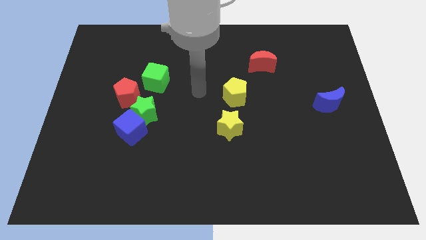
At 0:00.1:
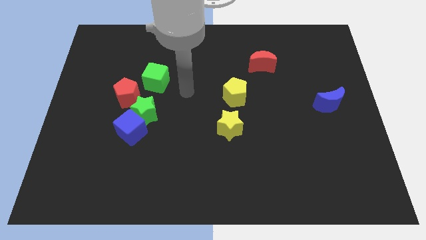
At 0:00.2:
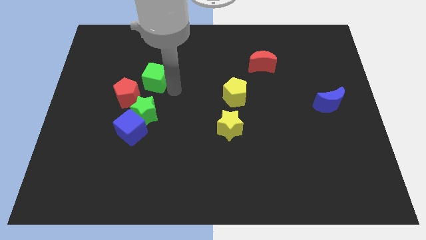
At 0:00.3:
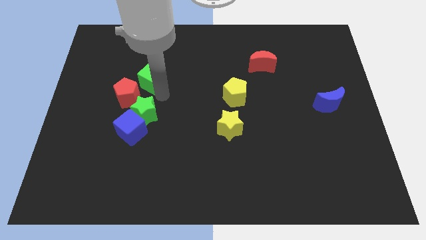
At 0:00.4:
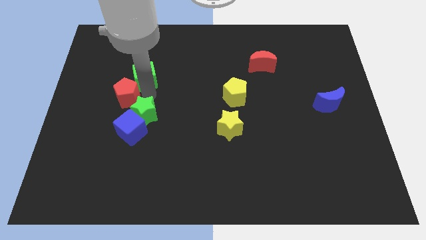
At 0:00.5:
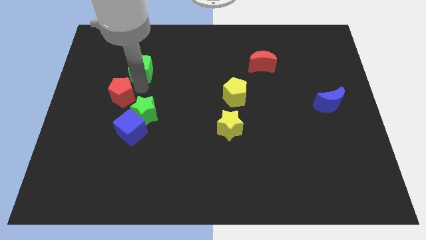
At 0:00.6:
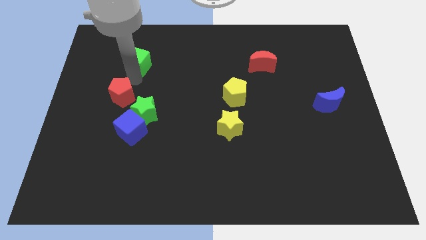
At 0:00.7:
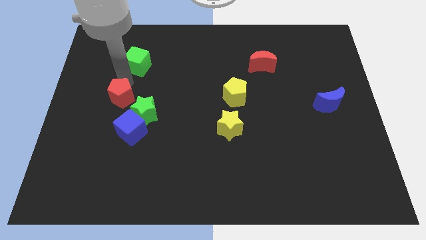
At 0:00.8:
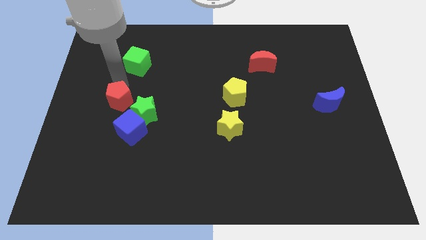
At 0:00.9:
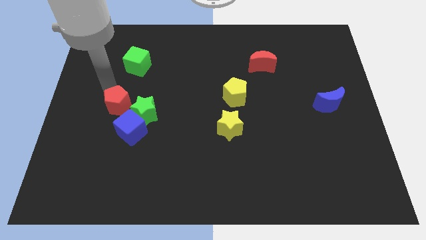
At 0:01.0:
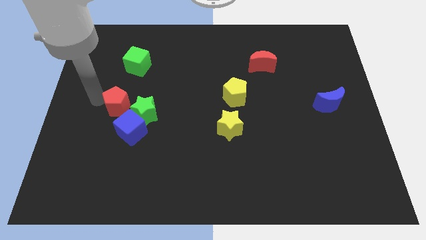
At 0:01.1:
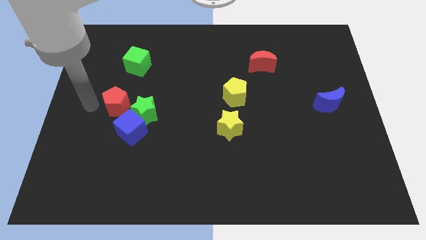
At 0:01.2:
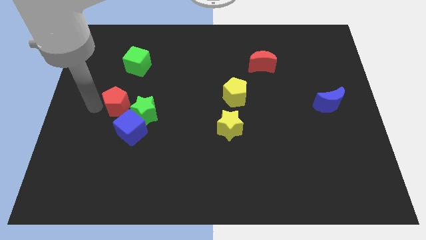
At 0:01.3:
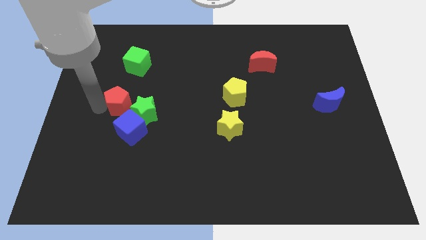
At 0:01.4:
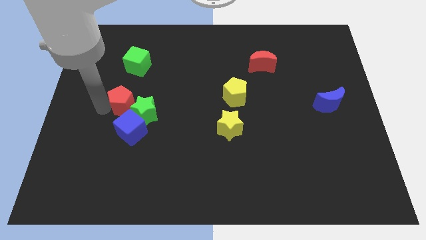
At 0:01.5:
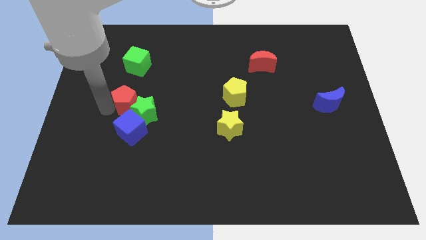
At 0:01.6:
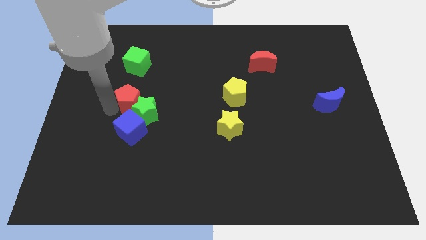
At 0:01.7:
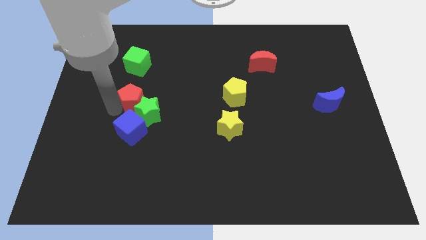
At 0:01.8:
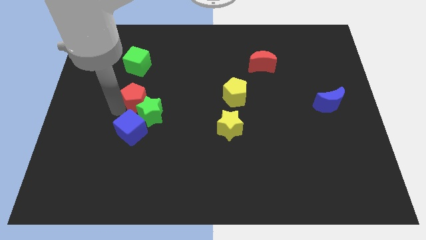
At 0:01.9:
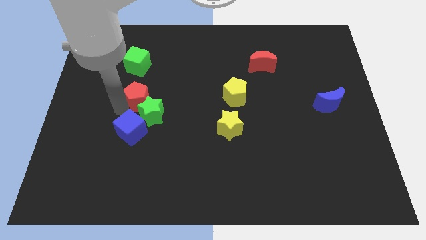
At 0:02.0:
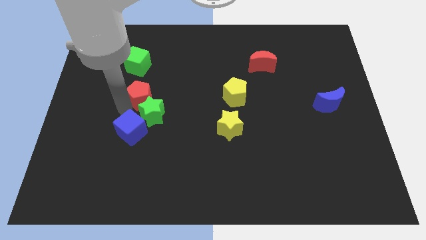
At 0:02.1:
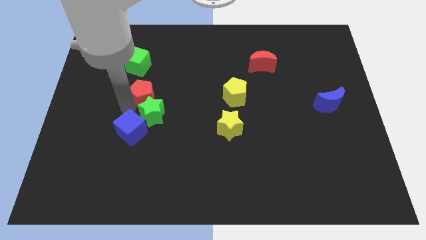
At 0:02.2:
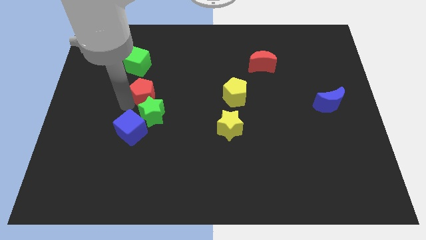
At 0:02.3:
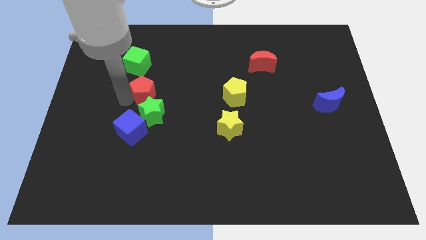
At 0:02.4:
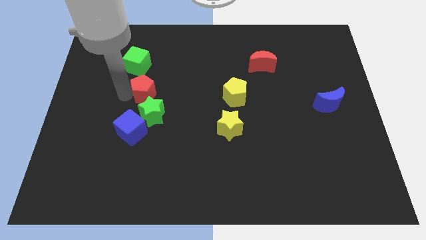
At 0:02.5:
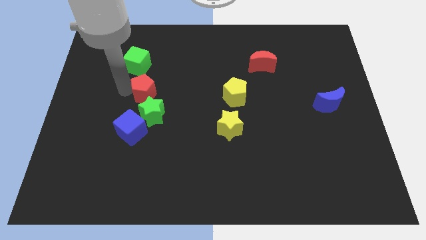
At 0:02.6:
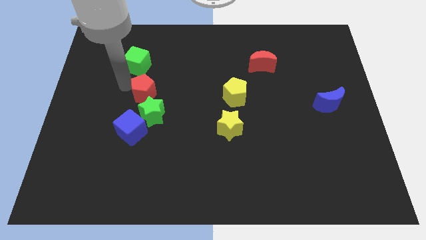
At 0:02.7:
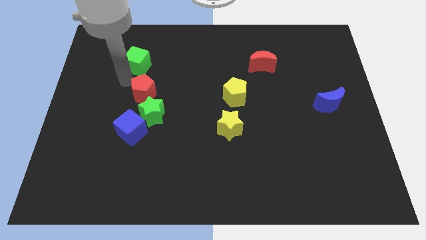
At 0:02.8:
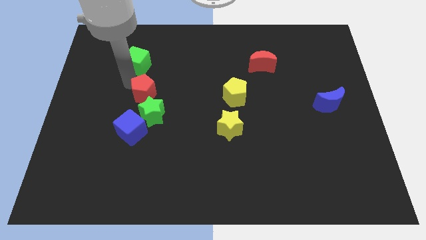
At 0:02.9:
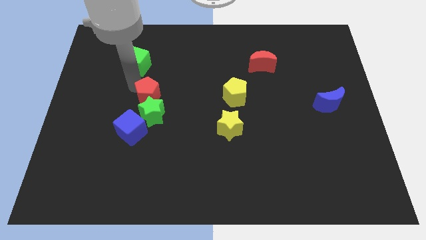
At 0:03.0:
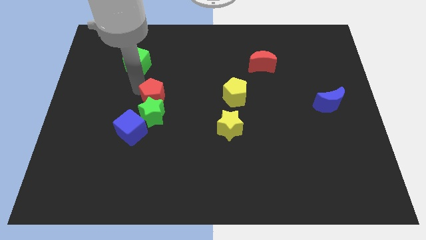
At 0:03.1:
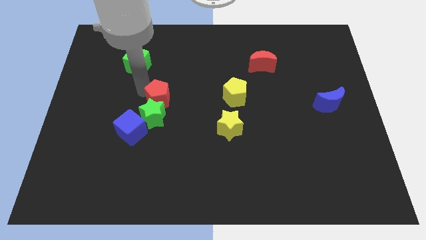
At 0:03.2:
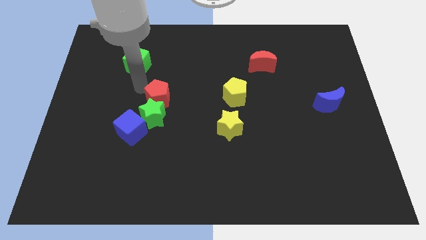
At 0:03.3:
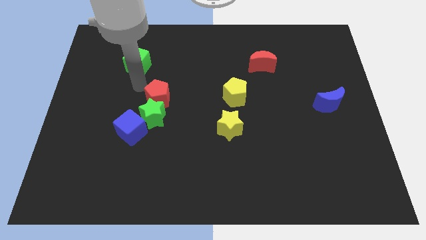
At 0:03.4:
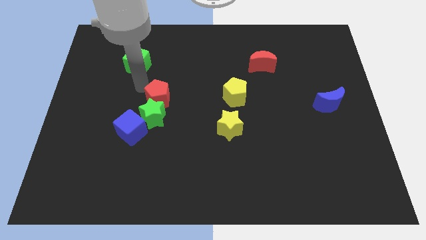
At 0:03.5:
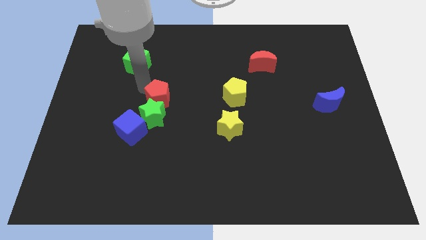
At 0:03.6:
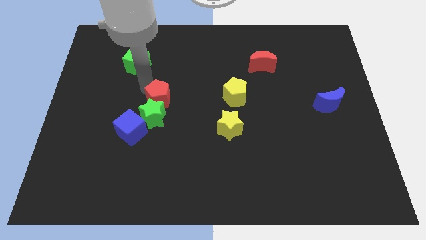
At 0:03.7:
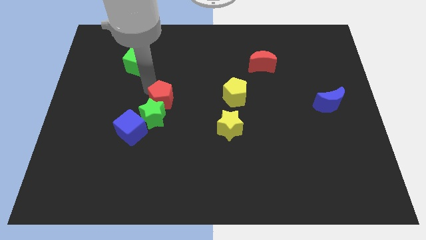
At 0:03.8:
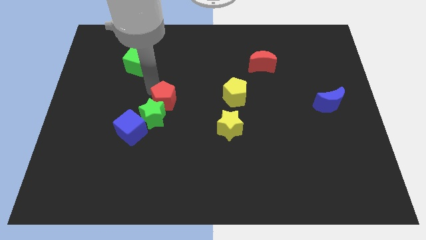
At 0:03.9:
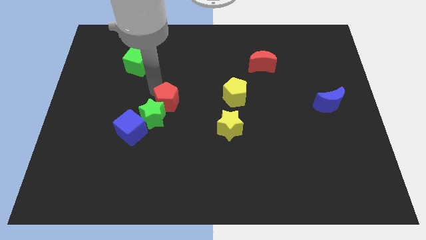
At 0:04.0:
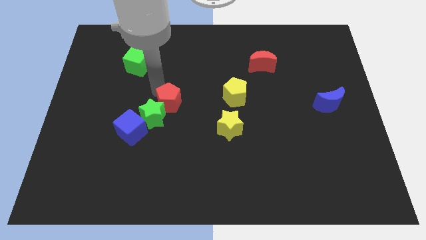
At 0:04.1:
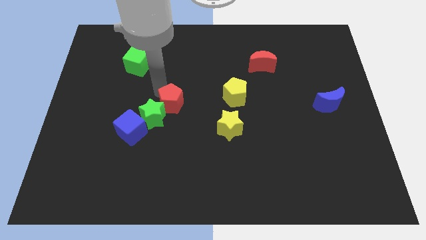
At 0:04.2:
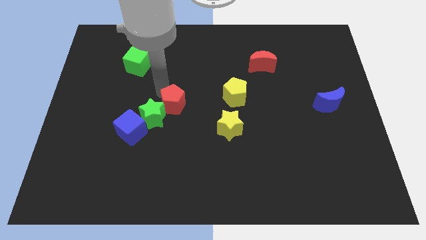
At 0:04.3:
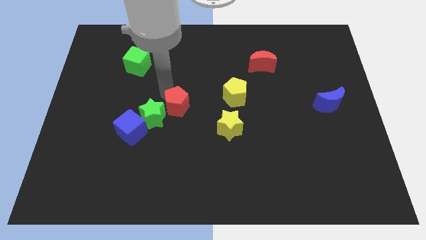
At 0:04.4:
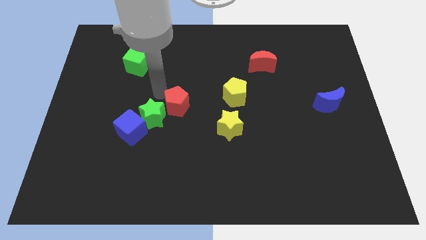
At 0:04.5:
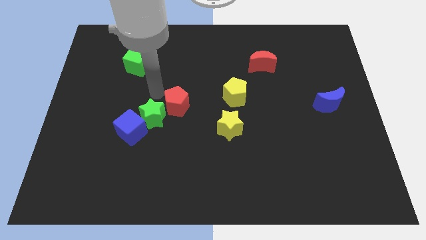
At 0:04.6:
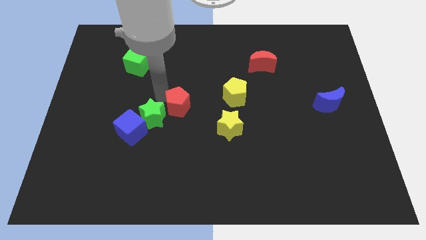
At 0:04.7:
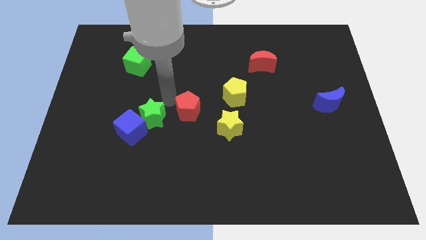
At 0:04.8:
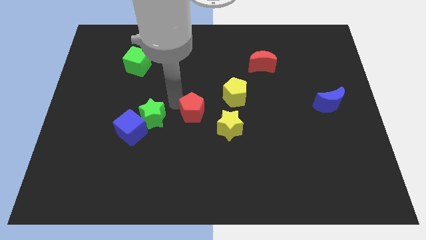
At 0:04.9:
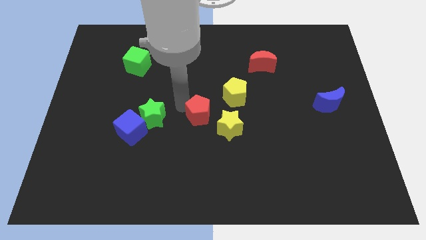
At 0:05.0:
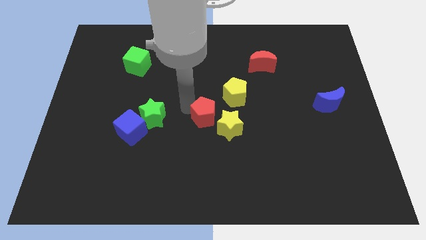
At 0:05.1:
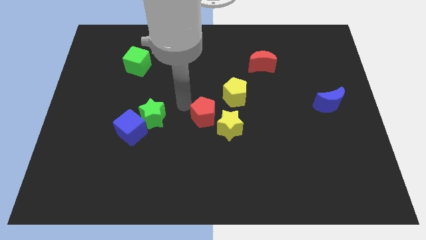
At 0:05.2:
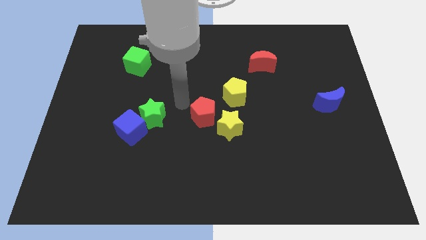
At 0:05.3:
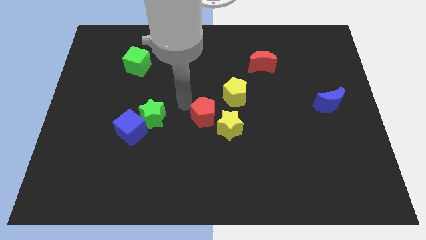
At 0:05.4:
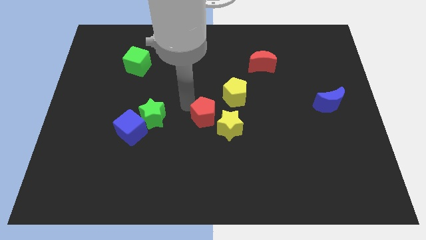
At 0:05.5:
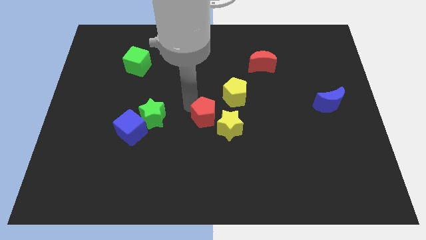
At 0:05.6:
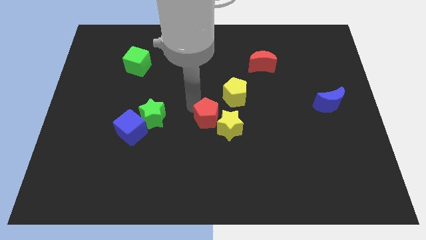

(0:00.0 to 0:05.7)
push the red pentagon next to the yellow star

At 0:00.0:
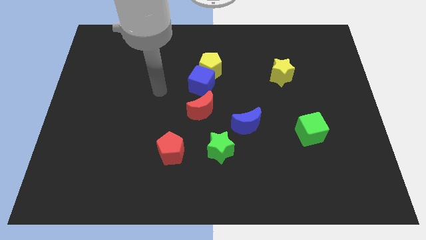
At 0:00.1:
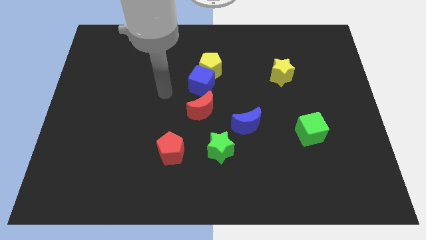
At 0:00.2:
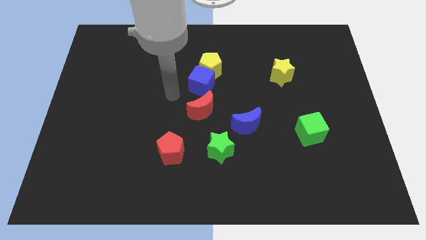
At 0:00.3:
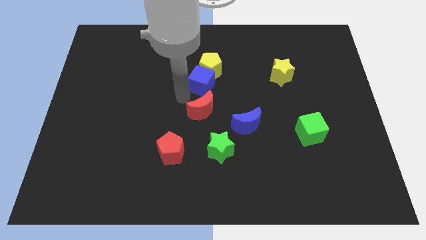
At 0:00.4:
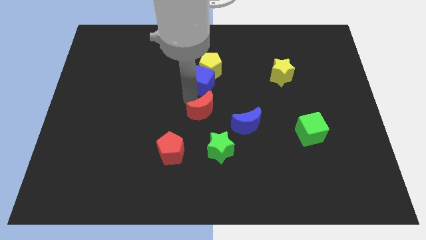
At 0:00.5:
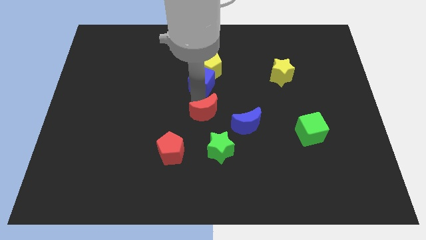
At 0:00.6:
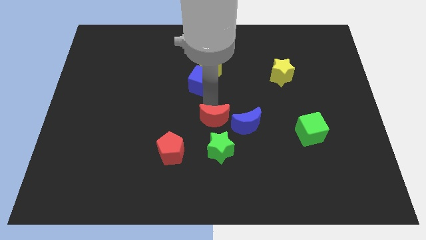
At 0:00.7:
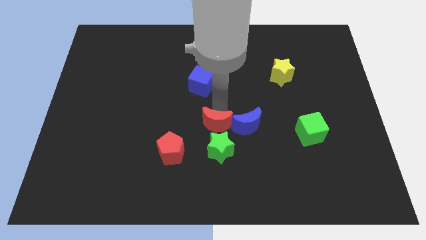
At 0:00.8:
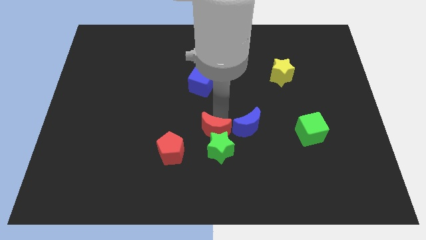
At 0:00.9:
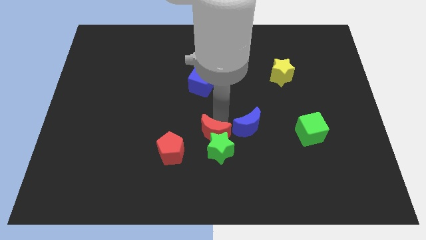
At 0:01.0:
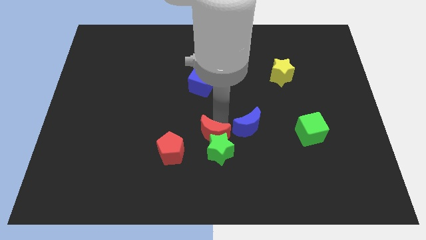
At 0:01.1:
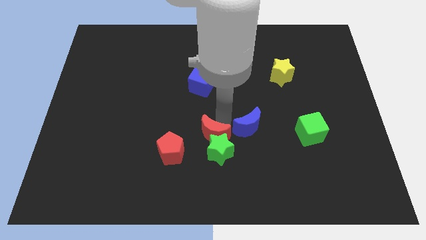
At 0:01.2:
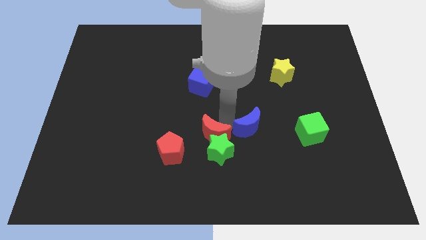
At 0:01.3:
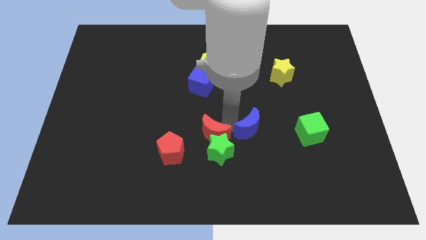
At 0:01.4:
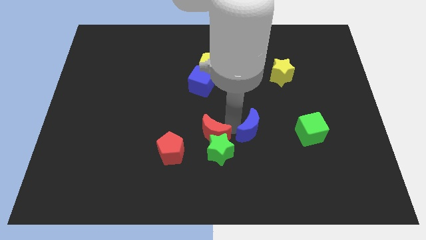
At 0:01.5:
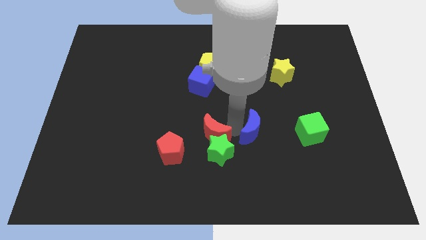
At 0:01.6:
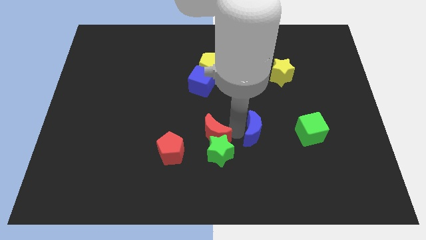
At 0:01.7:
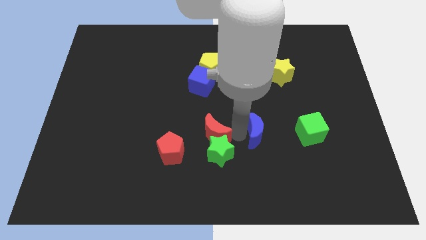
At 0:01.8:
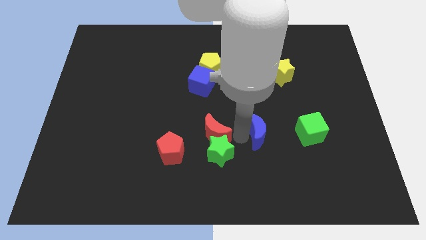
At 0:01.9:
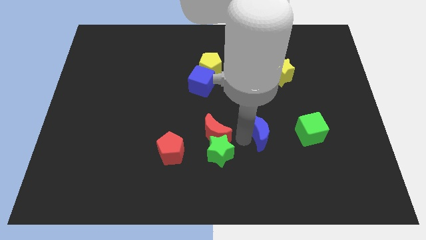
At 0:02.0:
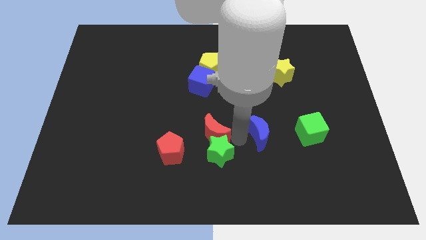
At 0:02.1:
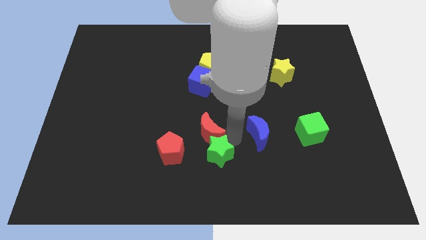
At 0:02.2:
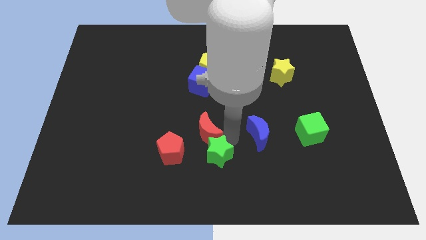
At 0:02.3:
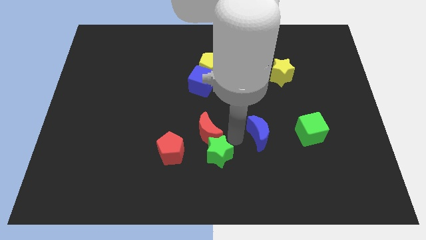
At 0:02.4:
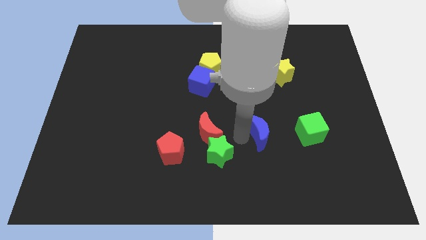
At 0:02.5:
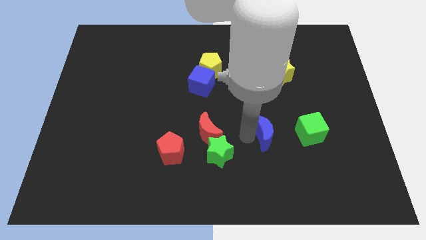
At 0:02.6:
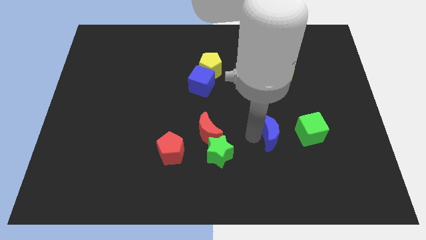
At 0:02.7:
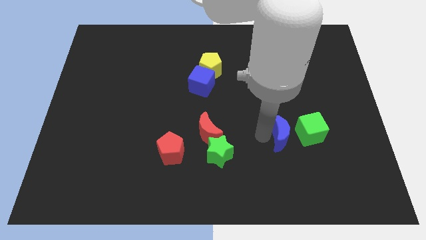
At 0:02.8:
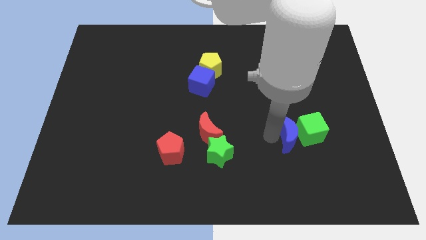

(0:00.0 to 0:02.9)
push the blue moon next to the green cube
